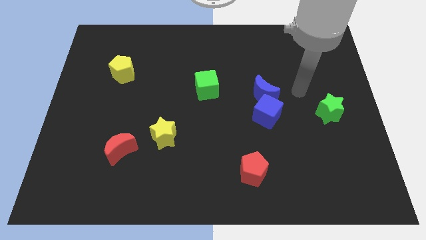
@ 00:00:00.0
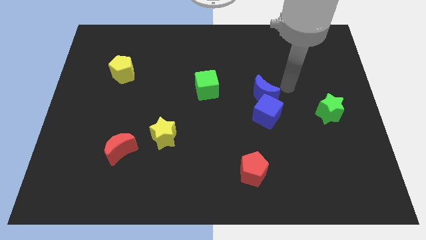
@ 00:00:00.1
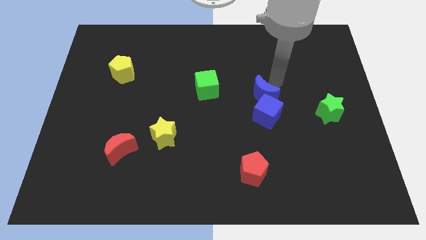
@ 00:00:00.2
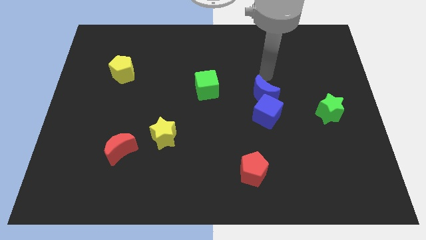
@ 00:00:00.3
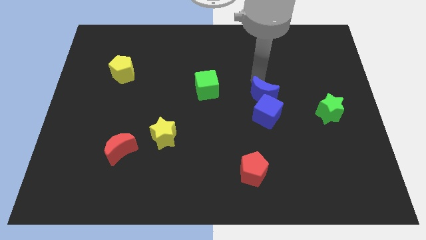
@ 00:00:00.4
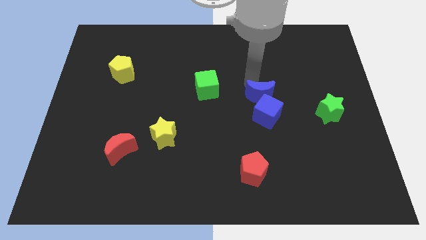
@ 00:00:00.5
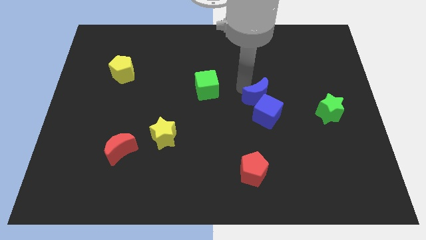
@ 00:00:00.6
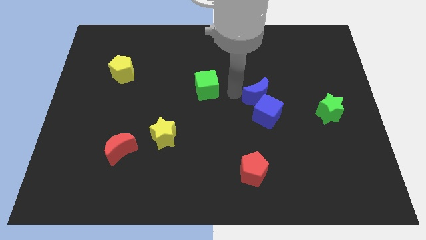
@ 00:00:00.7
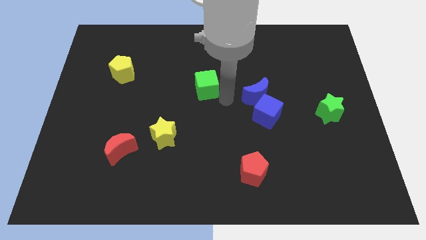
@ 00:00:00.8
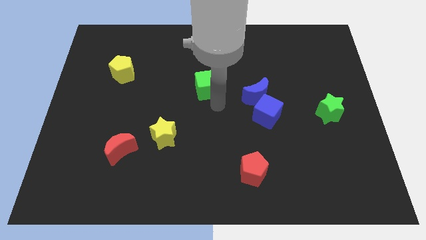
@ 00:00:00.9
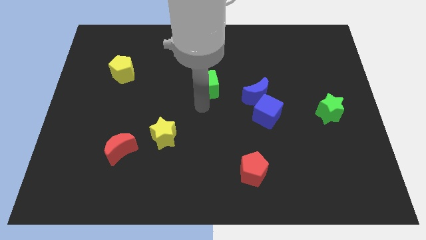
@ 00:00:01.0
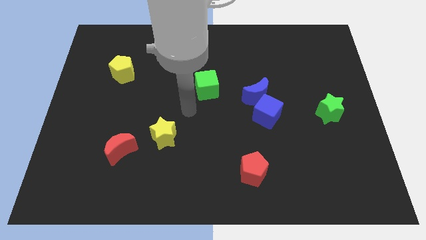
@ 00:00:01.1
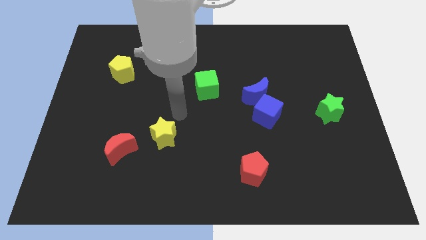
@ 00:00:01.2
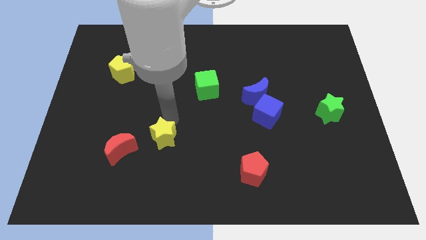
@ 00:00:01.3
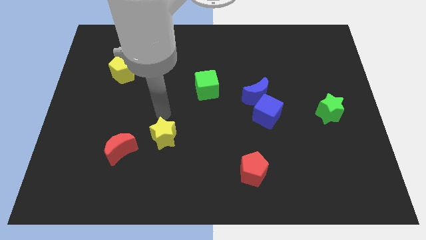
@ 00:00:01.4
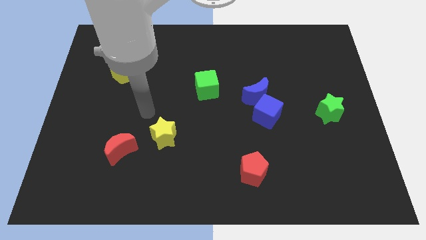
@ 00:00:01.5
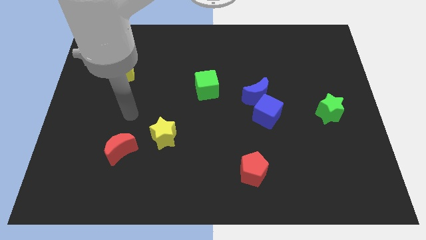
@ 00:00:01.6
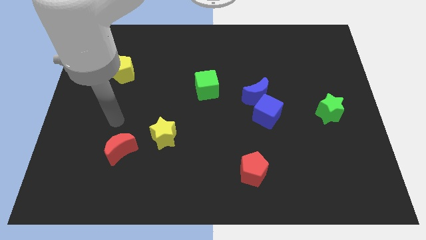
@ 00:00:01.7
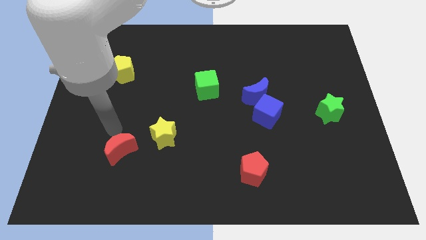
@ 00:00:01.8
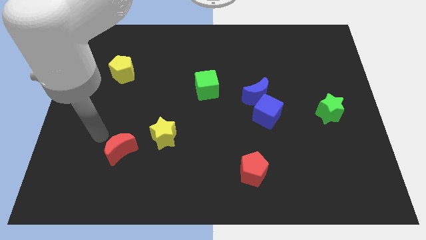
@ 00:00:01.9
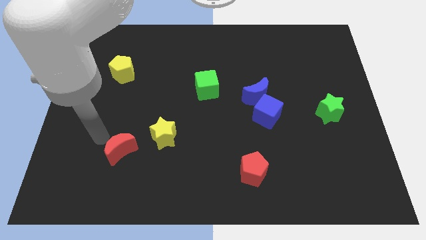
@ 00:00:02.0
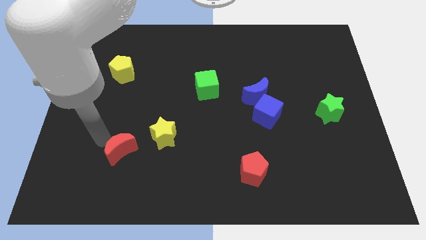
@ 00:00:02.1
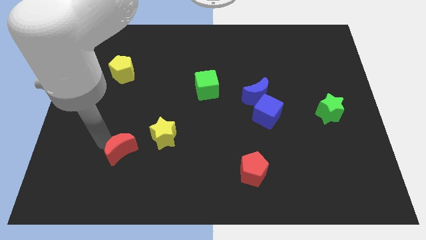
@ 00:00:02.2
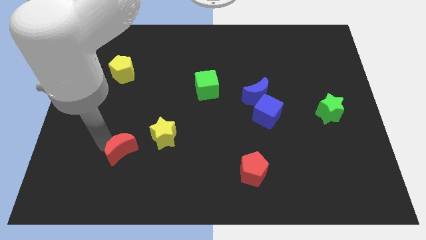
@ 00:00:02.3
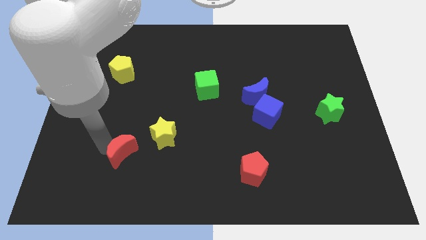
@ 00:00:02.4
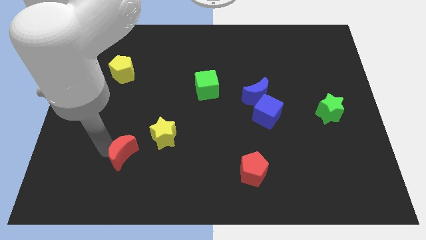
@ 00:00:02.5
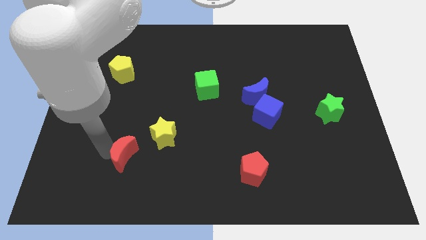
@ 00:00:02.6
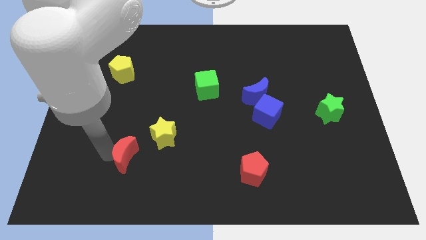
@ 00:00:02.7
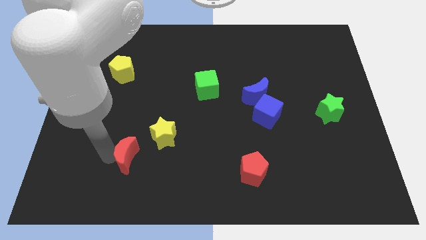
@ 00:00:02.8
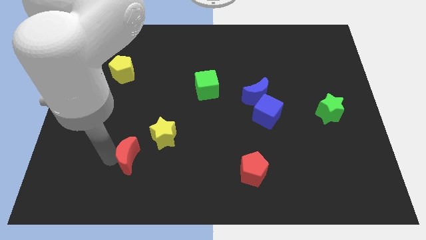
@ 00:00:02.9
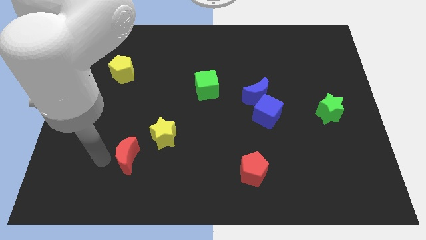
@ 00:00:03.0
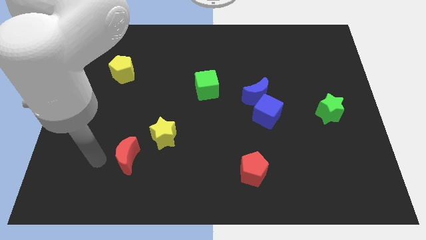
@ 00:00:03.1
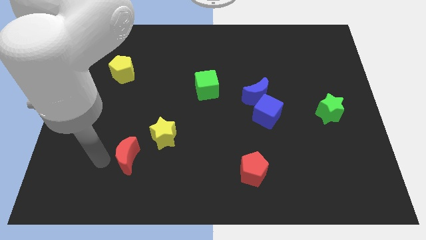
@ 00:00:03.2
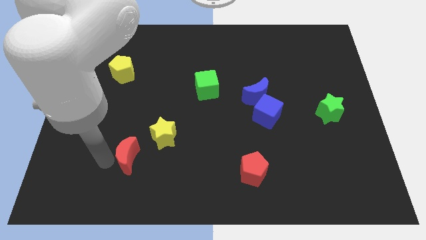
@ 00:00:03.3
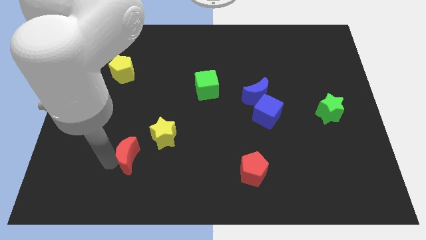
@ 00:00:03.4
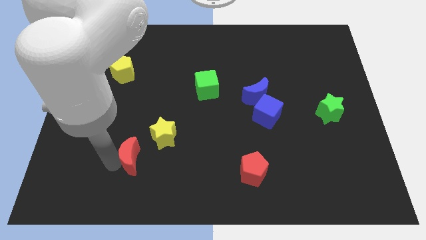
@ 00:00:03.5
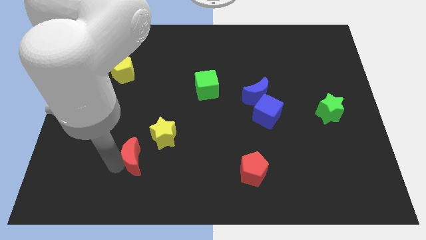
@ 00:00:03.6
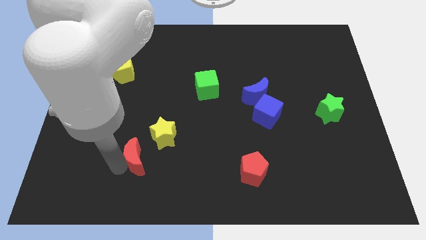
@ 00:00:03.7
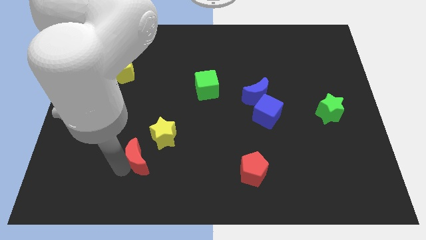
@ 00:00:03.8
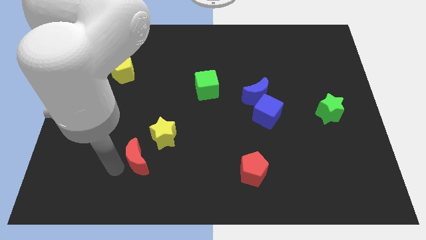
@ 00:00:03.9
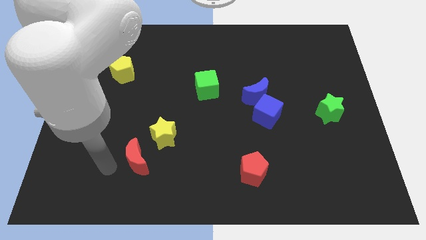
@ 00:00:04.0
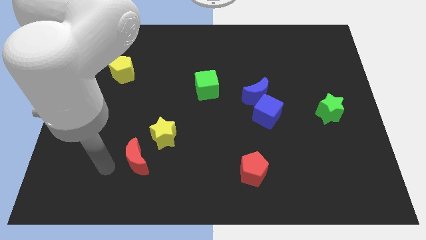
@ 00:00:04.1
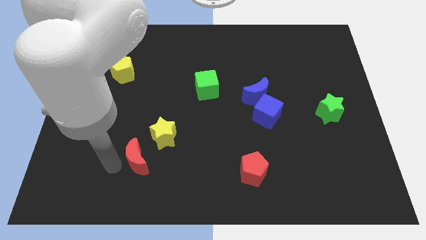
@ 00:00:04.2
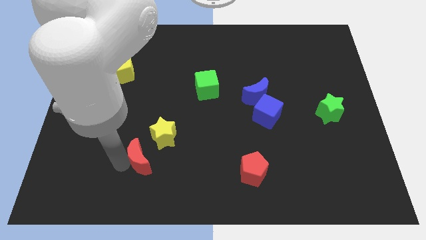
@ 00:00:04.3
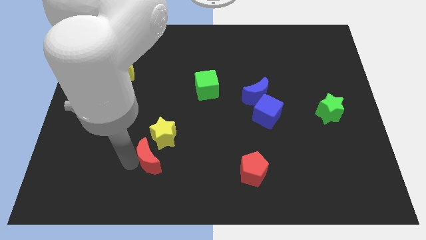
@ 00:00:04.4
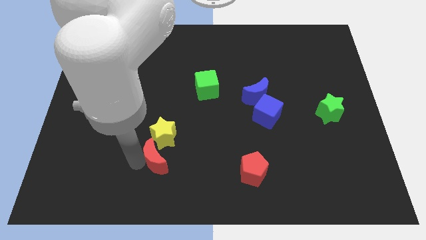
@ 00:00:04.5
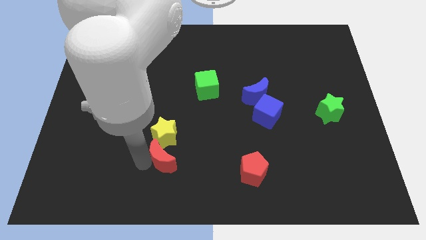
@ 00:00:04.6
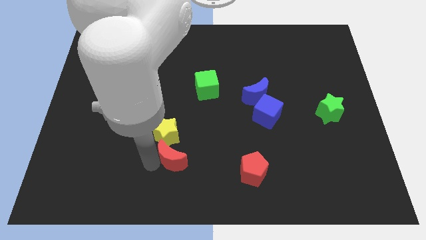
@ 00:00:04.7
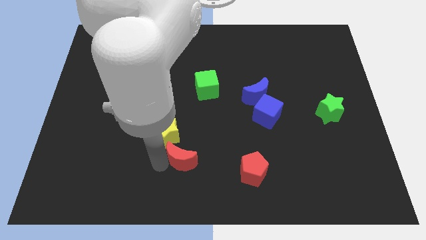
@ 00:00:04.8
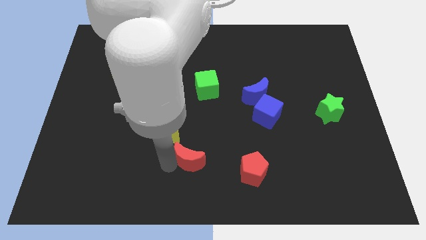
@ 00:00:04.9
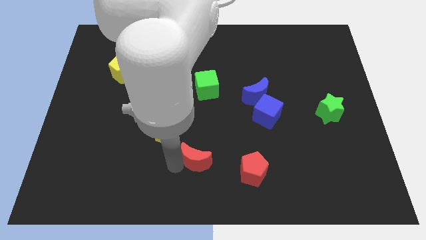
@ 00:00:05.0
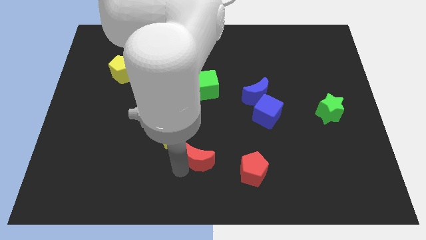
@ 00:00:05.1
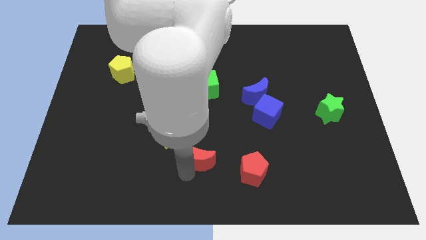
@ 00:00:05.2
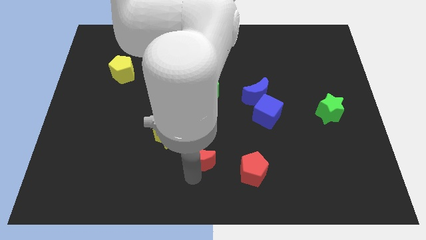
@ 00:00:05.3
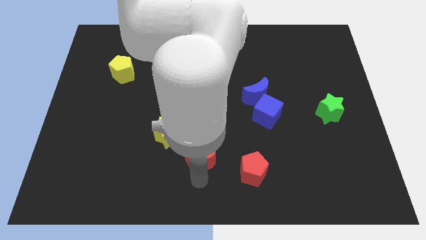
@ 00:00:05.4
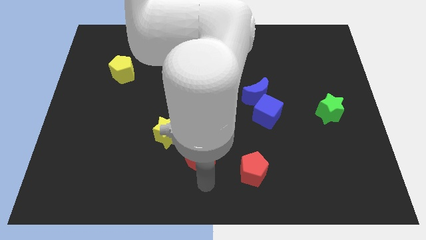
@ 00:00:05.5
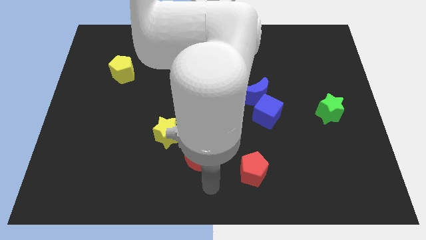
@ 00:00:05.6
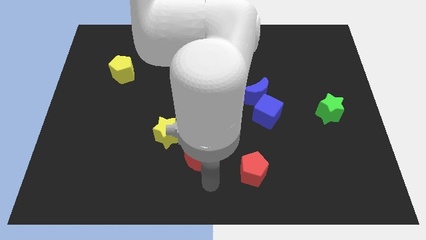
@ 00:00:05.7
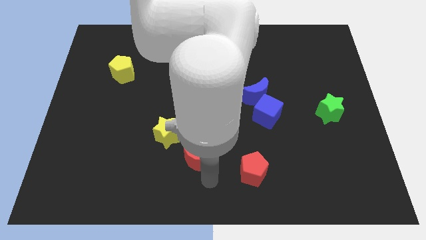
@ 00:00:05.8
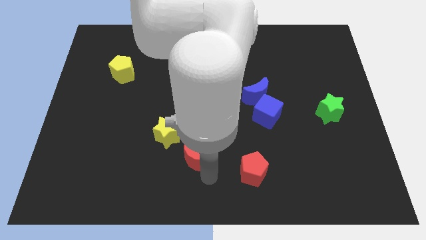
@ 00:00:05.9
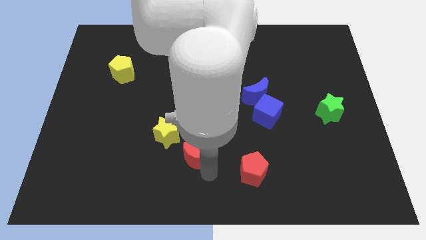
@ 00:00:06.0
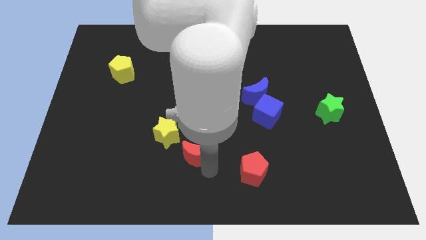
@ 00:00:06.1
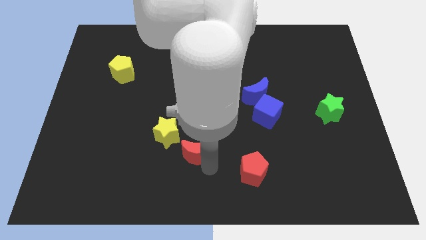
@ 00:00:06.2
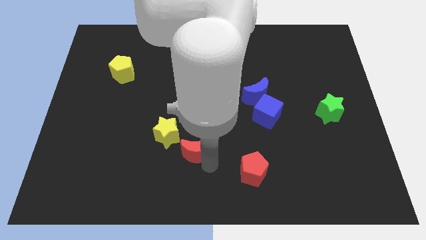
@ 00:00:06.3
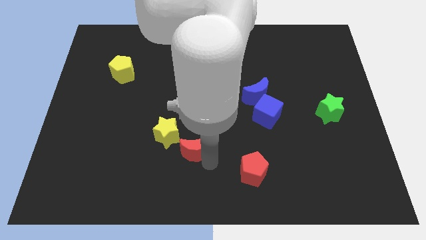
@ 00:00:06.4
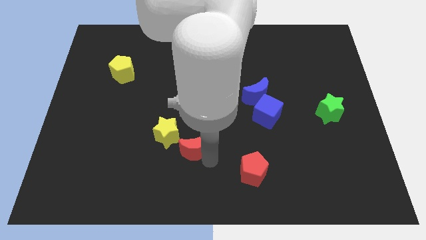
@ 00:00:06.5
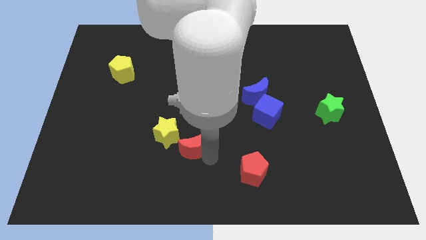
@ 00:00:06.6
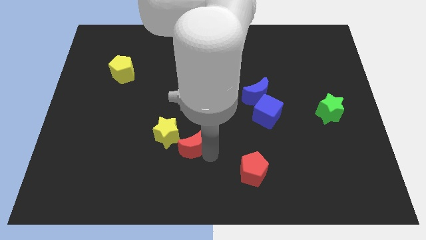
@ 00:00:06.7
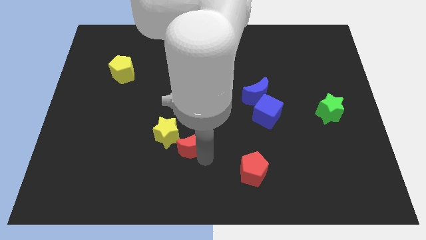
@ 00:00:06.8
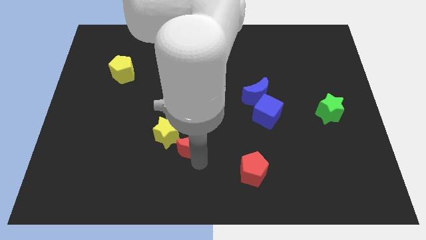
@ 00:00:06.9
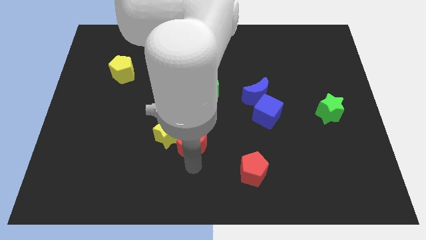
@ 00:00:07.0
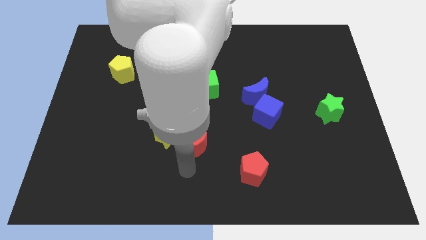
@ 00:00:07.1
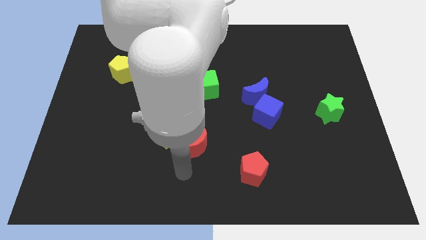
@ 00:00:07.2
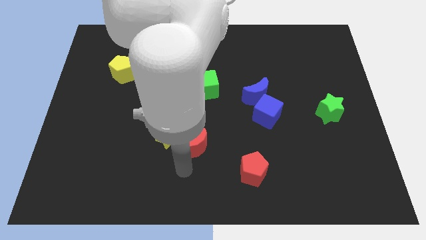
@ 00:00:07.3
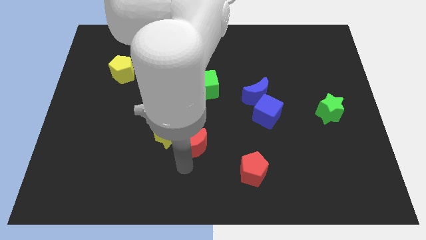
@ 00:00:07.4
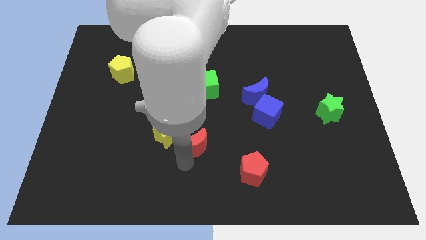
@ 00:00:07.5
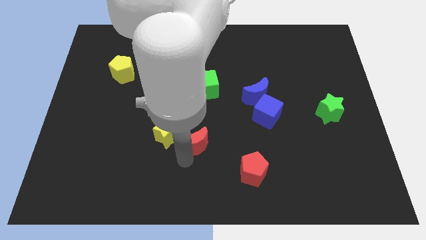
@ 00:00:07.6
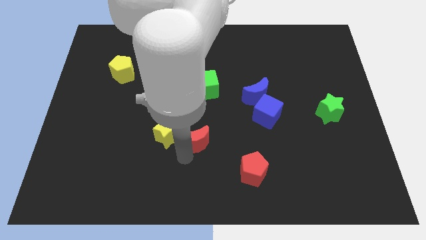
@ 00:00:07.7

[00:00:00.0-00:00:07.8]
move the red moon to the bottom side of the green cube

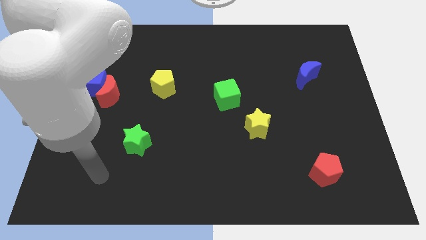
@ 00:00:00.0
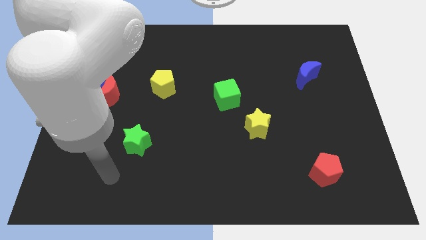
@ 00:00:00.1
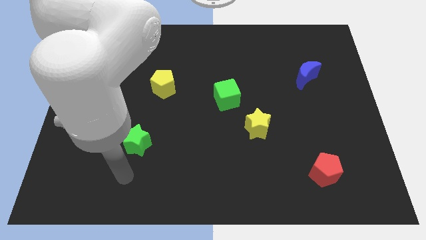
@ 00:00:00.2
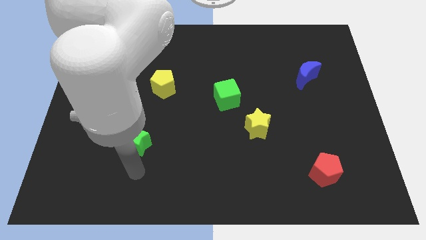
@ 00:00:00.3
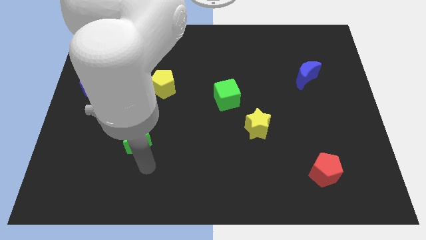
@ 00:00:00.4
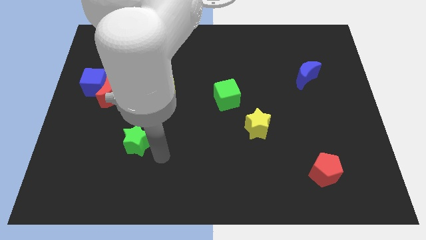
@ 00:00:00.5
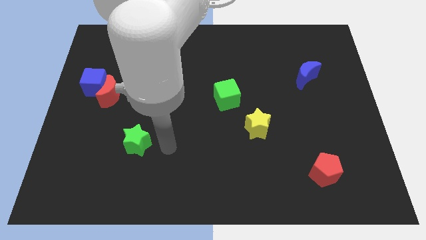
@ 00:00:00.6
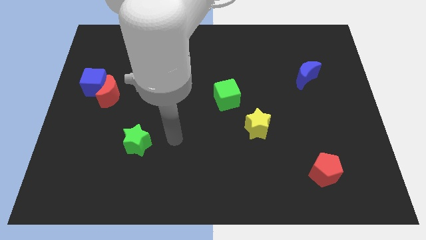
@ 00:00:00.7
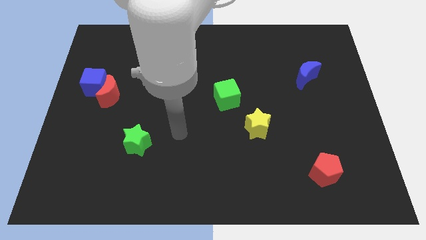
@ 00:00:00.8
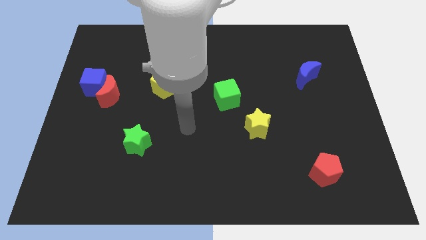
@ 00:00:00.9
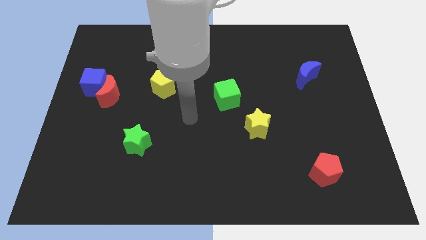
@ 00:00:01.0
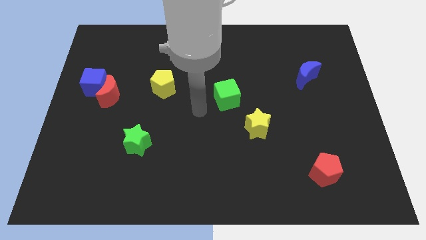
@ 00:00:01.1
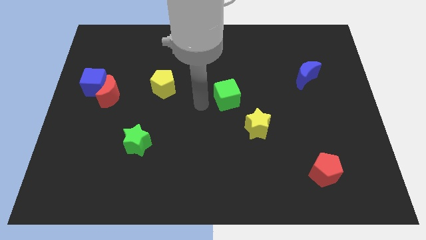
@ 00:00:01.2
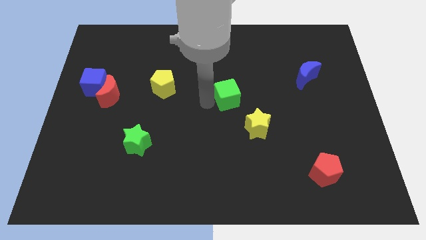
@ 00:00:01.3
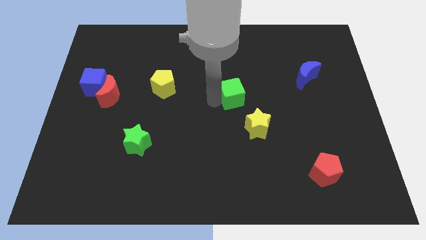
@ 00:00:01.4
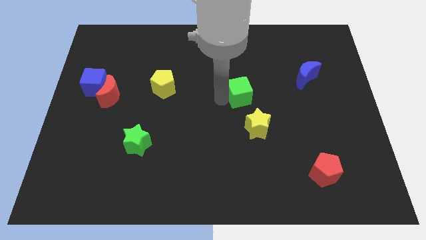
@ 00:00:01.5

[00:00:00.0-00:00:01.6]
push the green cube to the top of the yellow star
